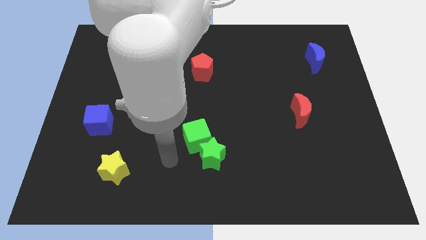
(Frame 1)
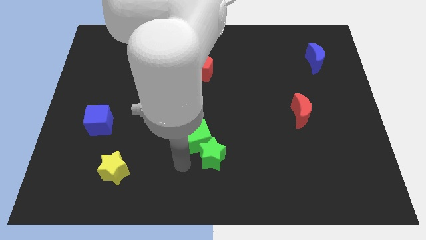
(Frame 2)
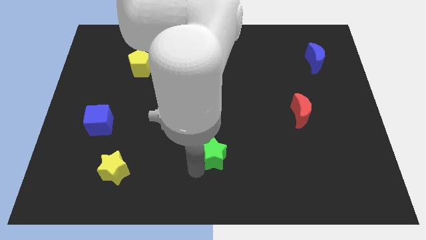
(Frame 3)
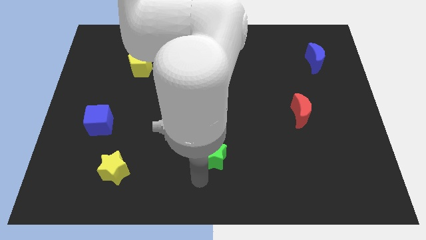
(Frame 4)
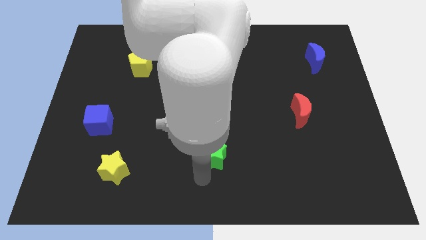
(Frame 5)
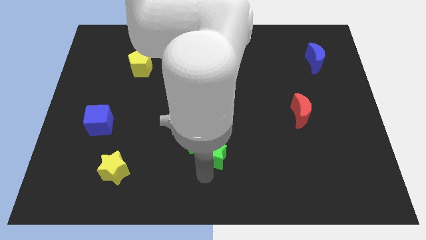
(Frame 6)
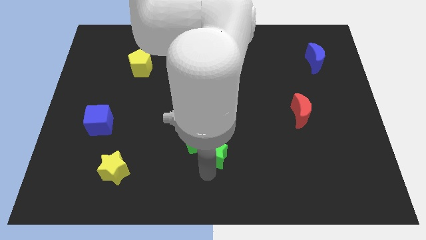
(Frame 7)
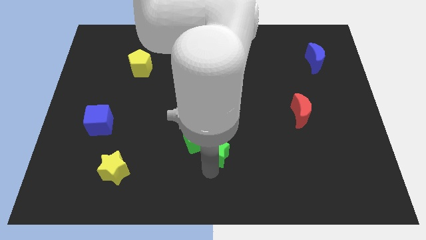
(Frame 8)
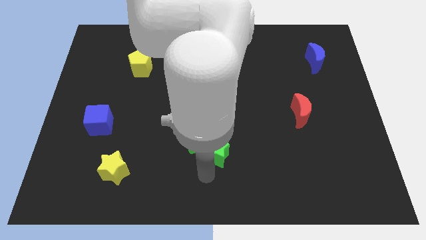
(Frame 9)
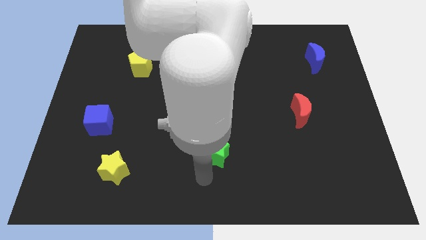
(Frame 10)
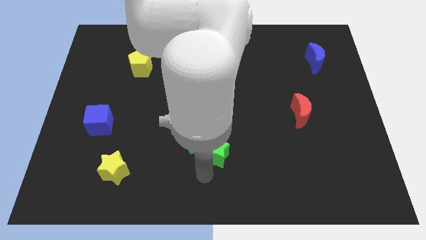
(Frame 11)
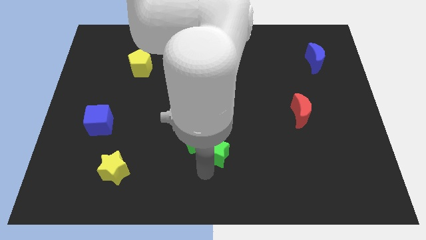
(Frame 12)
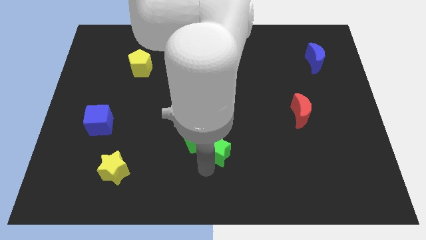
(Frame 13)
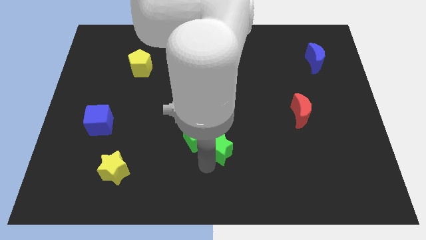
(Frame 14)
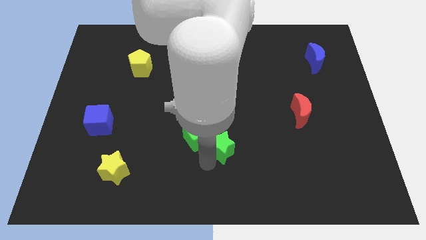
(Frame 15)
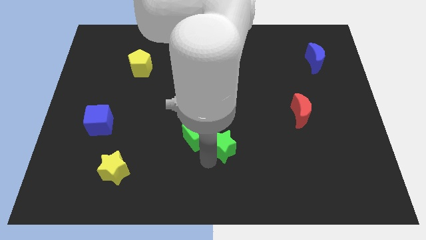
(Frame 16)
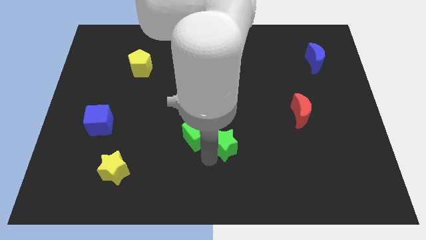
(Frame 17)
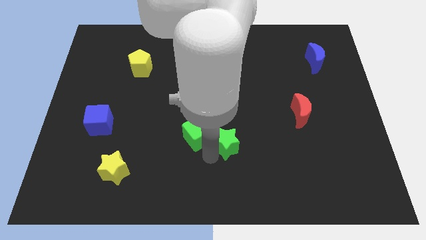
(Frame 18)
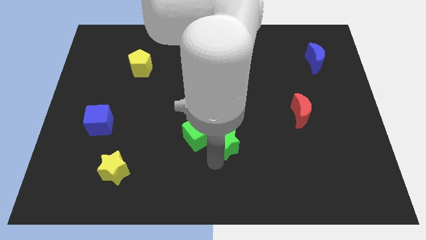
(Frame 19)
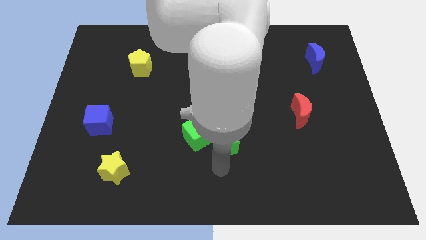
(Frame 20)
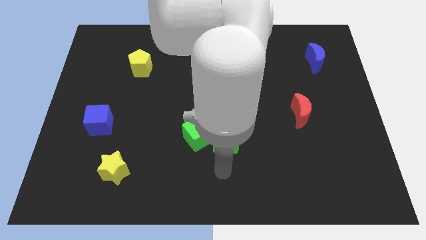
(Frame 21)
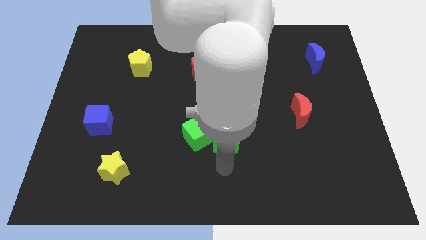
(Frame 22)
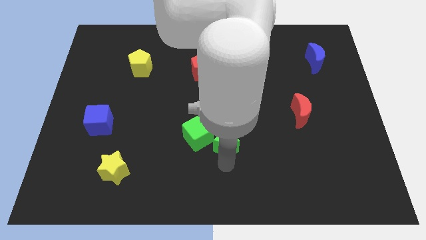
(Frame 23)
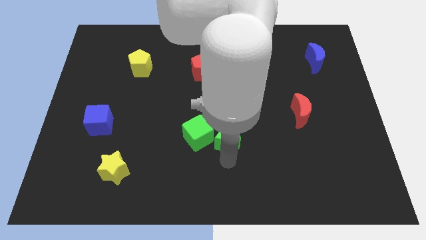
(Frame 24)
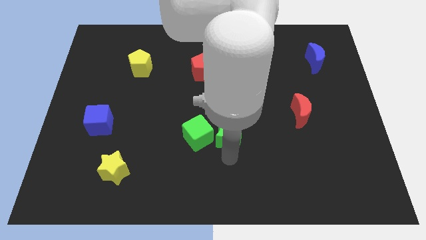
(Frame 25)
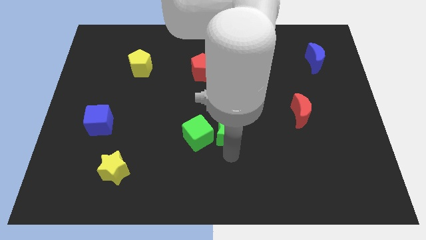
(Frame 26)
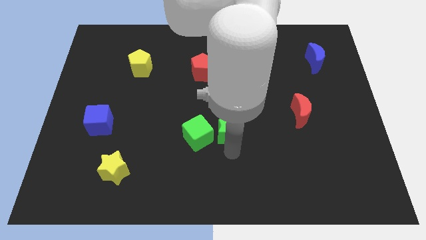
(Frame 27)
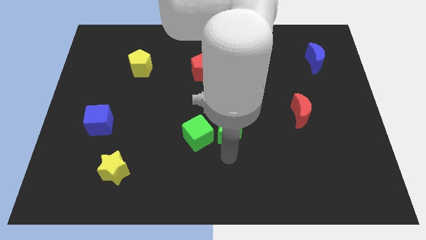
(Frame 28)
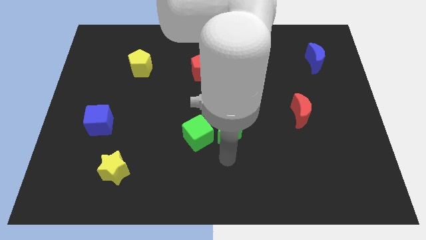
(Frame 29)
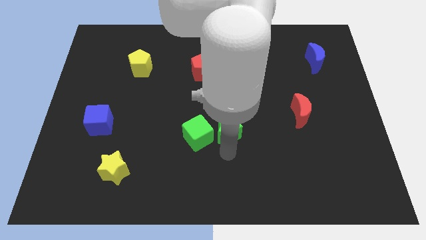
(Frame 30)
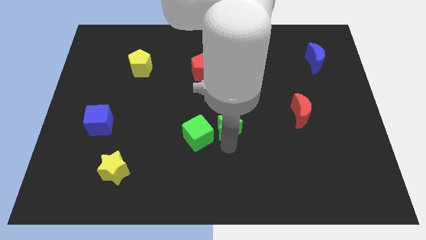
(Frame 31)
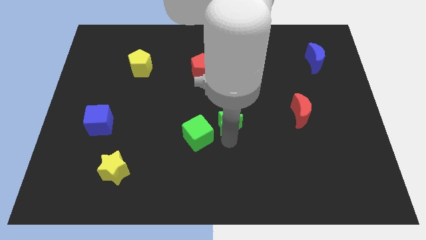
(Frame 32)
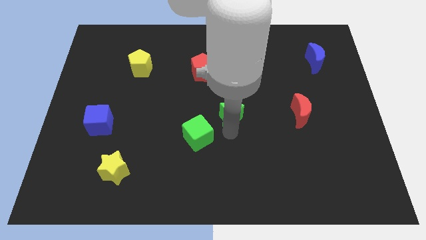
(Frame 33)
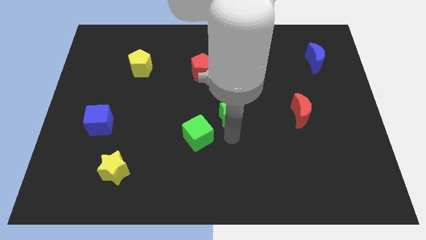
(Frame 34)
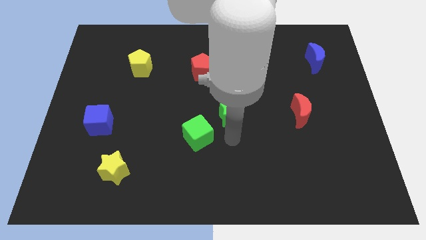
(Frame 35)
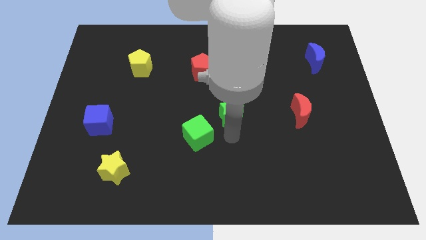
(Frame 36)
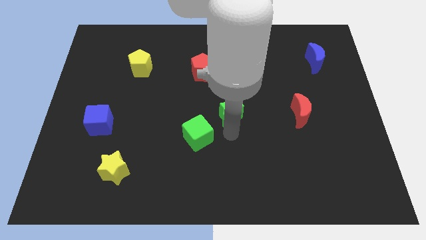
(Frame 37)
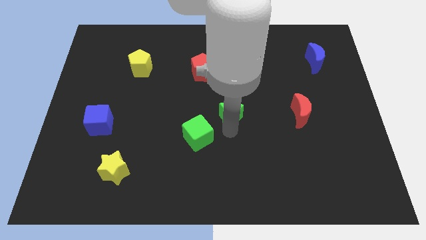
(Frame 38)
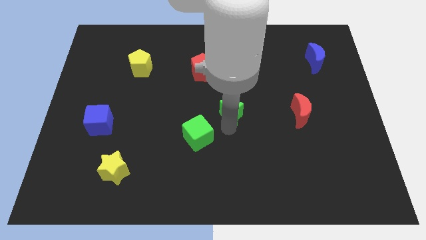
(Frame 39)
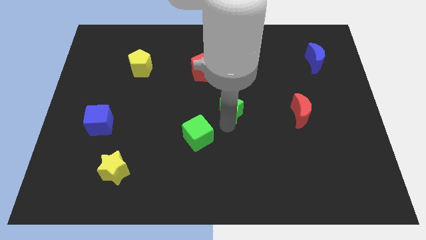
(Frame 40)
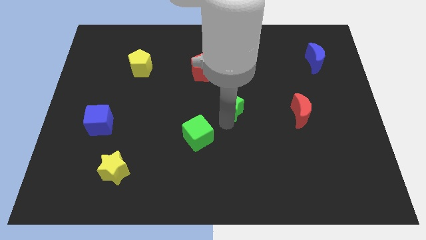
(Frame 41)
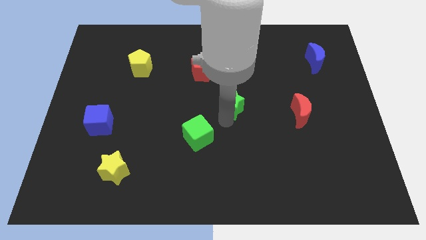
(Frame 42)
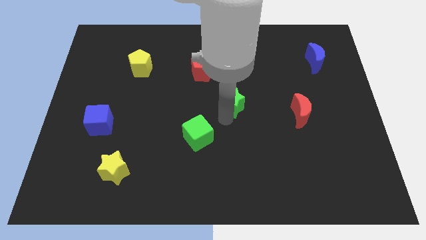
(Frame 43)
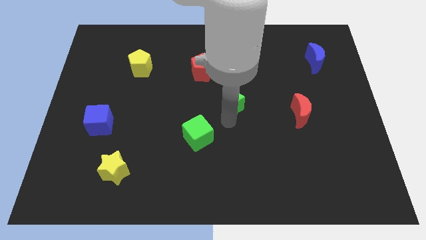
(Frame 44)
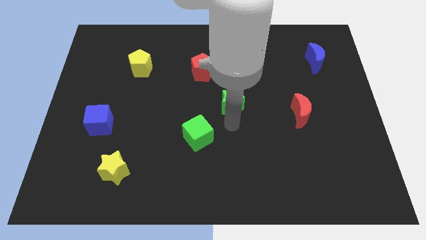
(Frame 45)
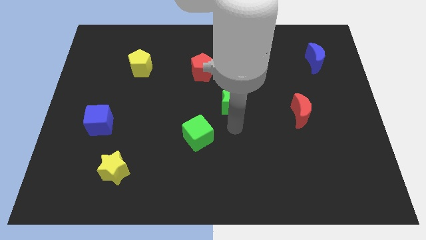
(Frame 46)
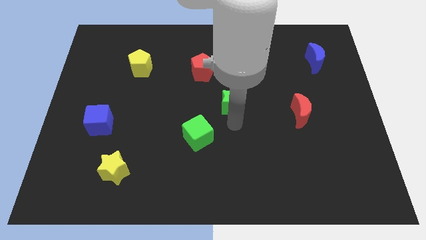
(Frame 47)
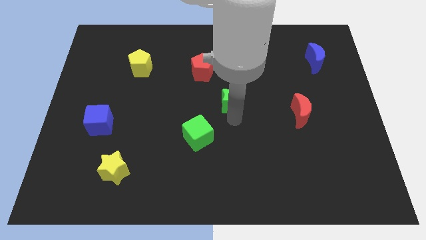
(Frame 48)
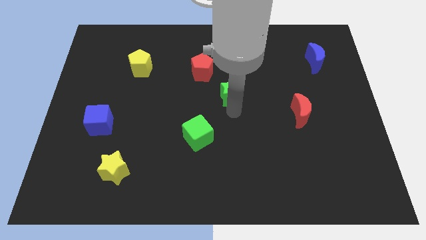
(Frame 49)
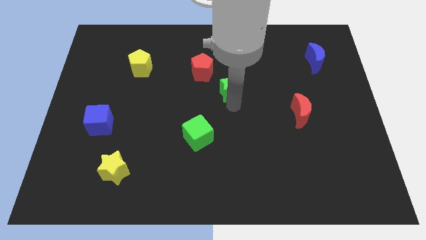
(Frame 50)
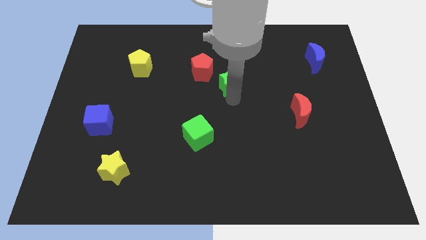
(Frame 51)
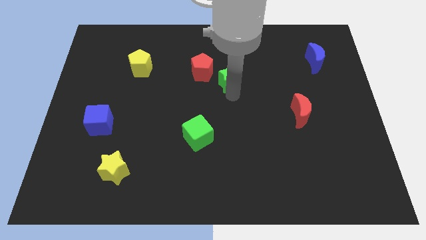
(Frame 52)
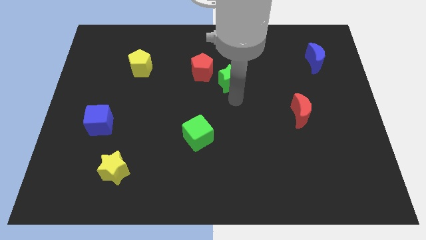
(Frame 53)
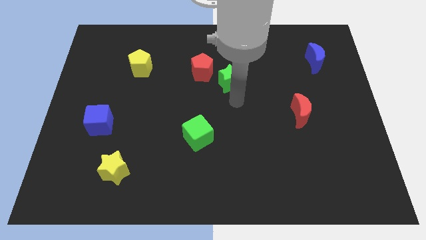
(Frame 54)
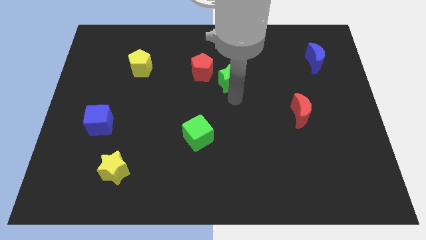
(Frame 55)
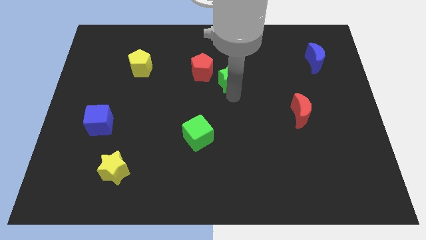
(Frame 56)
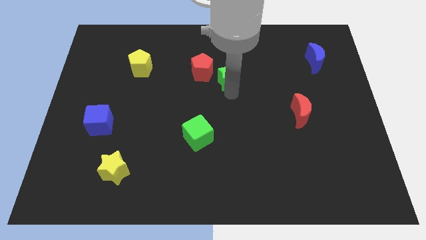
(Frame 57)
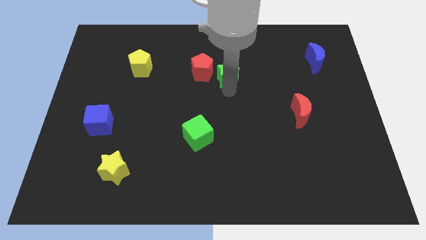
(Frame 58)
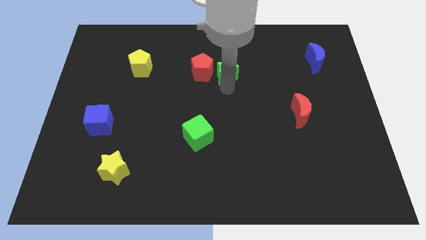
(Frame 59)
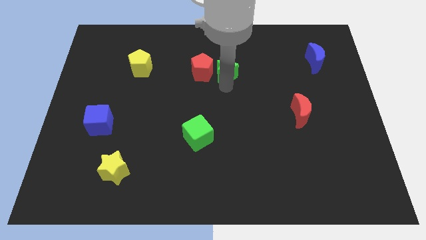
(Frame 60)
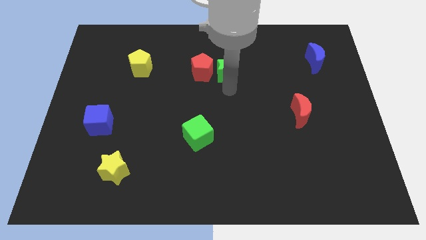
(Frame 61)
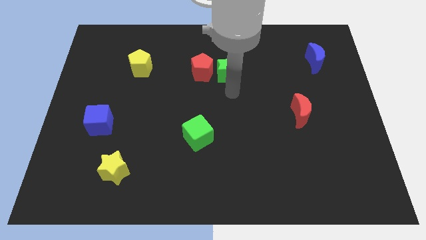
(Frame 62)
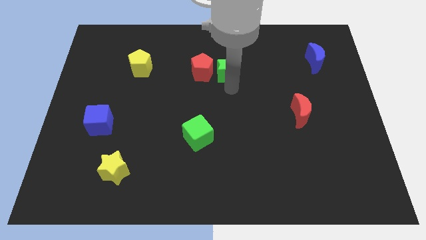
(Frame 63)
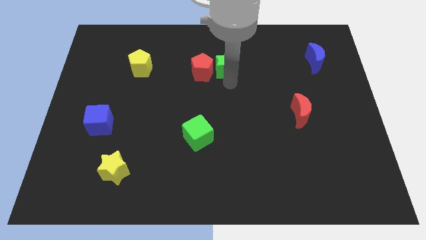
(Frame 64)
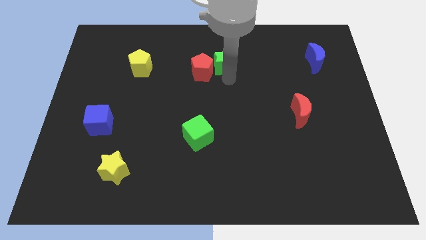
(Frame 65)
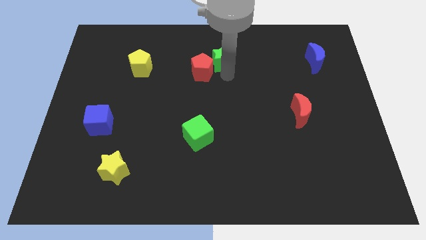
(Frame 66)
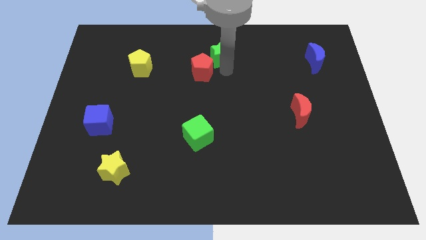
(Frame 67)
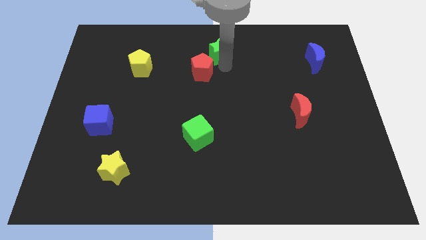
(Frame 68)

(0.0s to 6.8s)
slide the green star to the top
